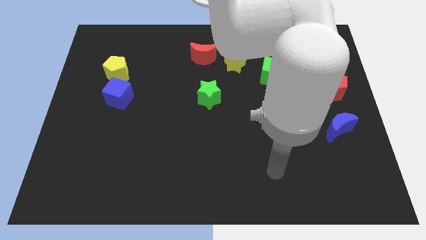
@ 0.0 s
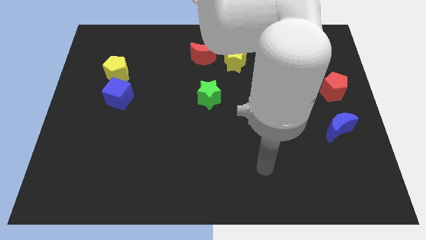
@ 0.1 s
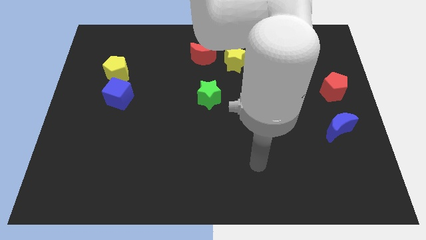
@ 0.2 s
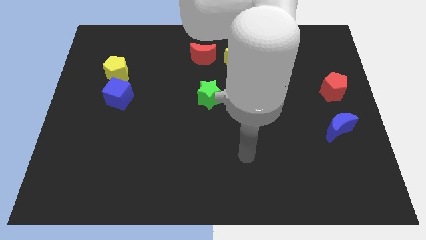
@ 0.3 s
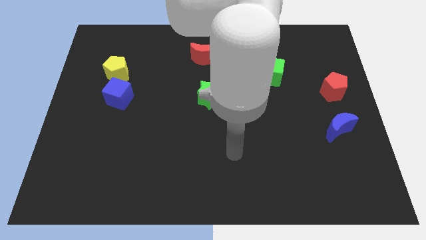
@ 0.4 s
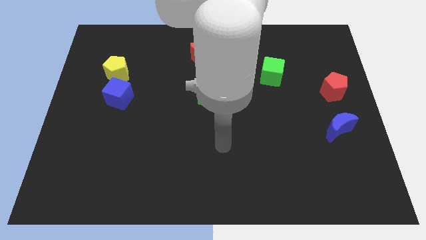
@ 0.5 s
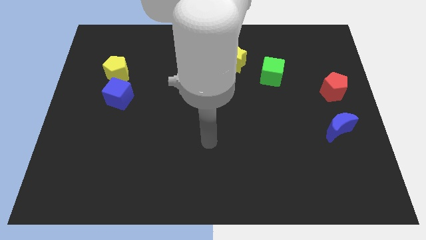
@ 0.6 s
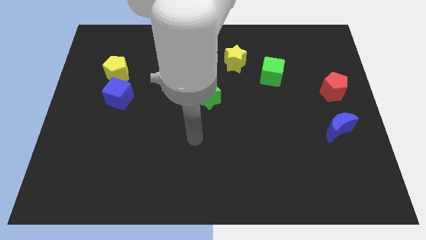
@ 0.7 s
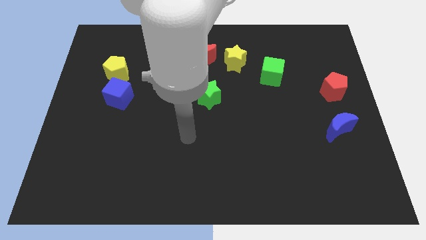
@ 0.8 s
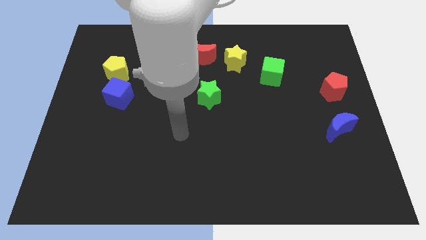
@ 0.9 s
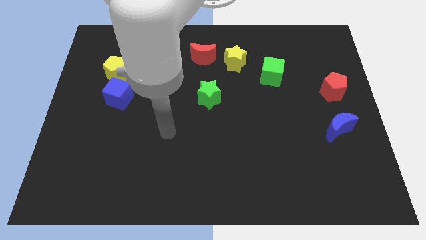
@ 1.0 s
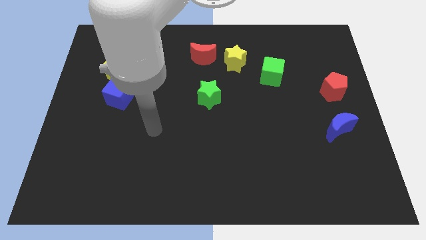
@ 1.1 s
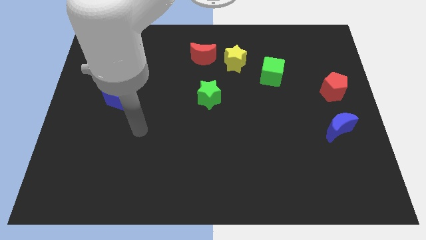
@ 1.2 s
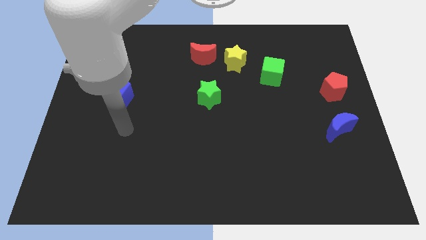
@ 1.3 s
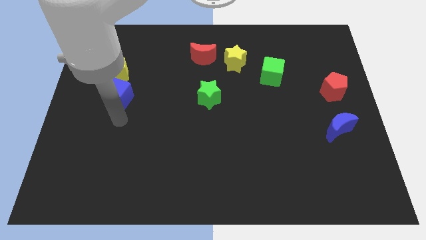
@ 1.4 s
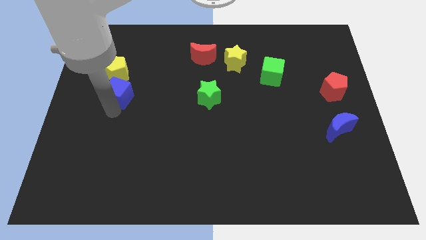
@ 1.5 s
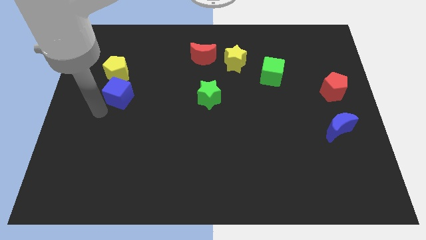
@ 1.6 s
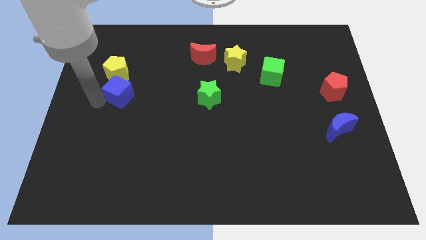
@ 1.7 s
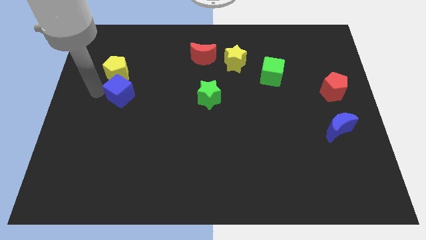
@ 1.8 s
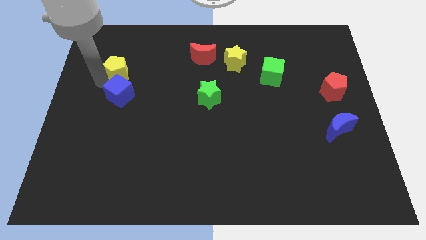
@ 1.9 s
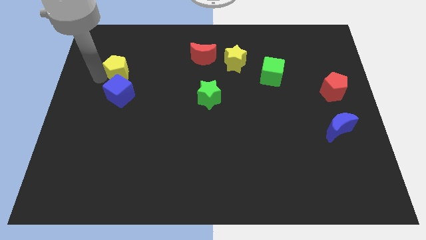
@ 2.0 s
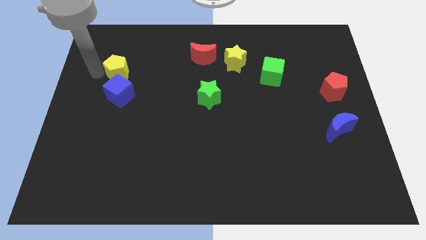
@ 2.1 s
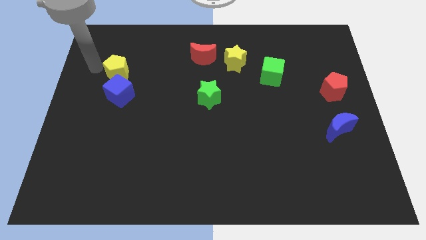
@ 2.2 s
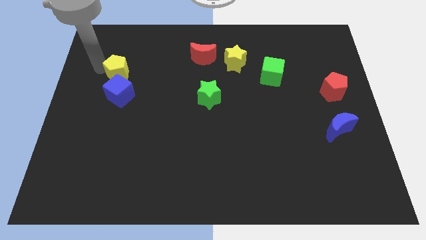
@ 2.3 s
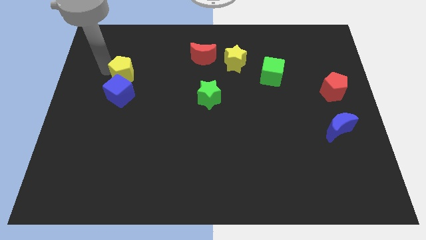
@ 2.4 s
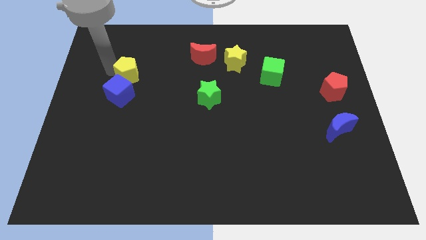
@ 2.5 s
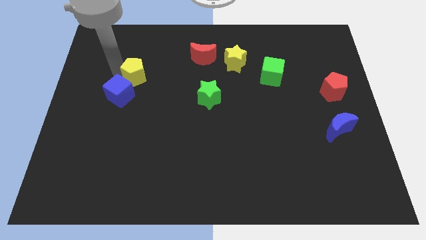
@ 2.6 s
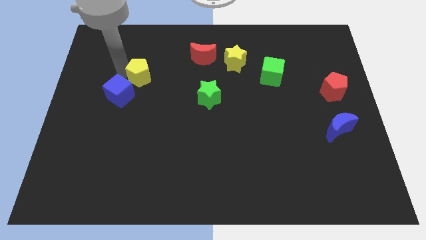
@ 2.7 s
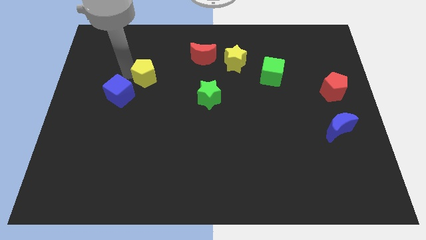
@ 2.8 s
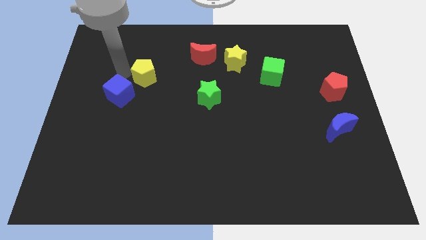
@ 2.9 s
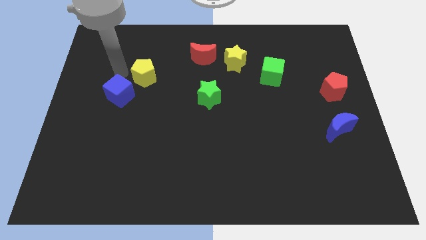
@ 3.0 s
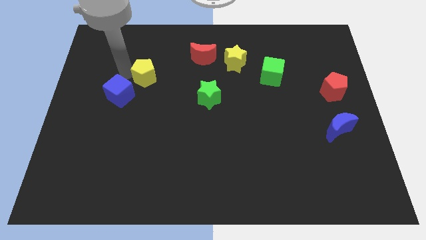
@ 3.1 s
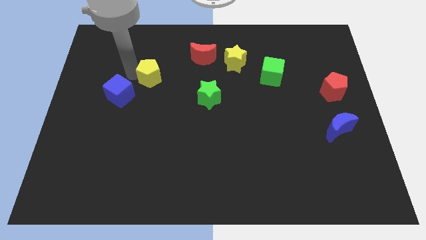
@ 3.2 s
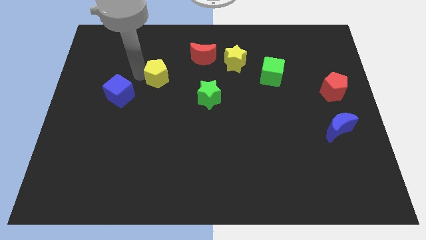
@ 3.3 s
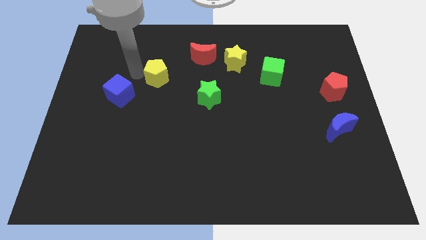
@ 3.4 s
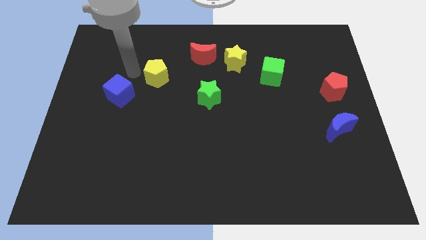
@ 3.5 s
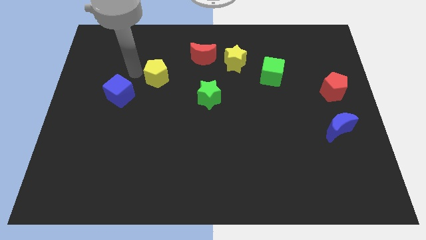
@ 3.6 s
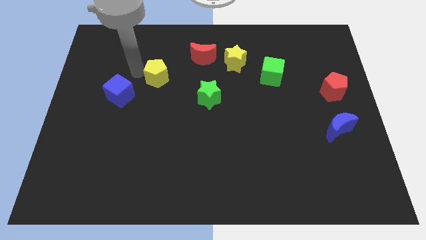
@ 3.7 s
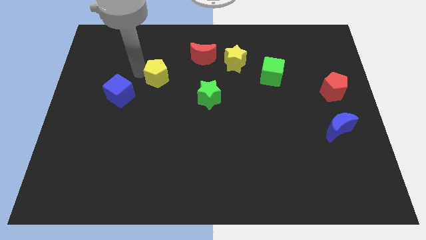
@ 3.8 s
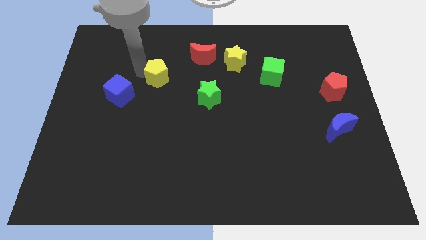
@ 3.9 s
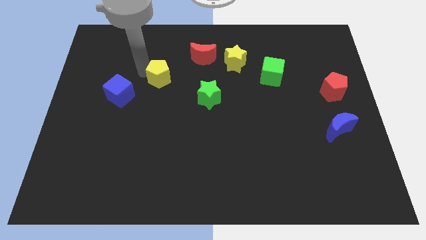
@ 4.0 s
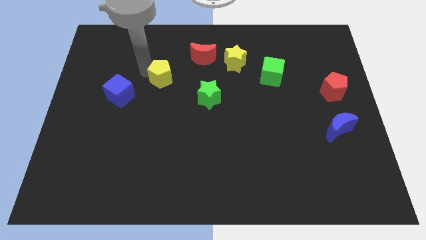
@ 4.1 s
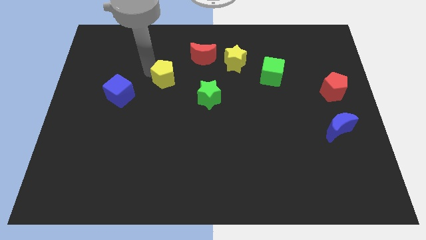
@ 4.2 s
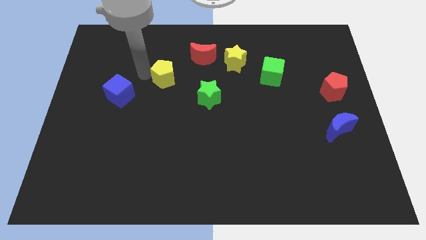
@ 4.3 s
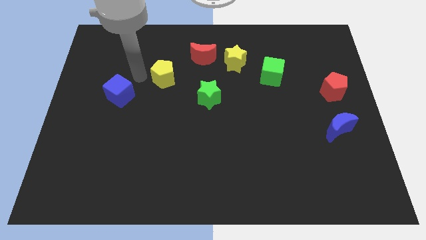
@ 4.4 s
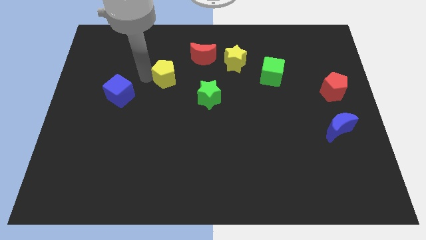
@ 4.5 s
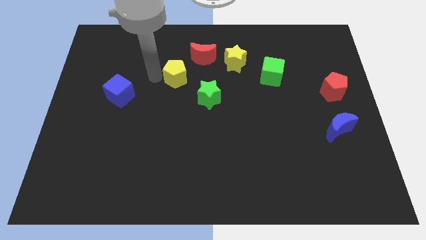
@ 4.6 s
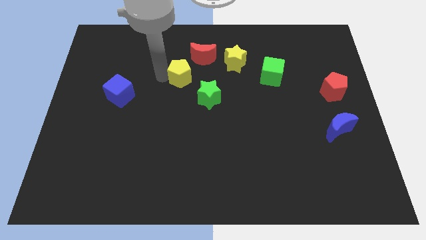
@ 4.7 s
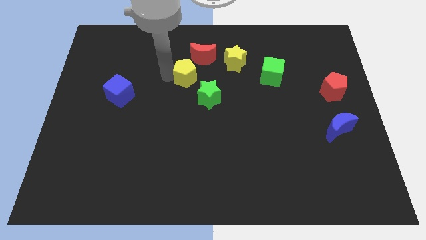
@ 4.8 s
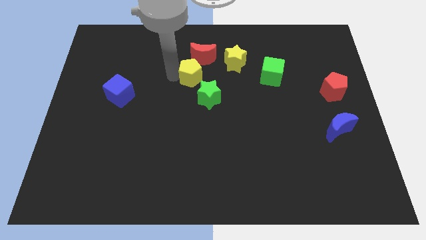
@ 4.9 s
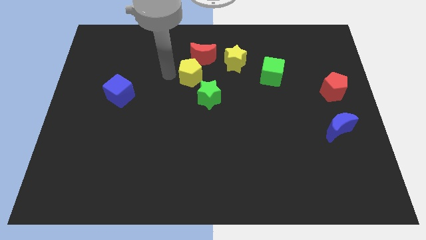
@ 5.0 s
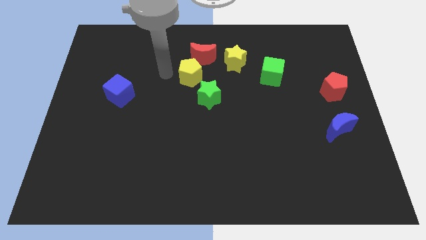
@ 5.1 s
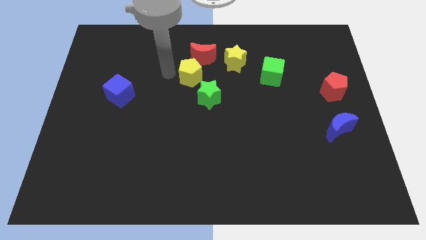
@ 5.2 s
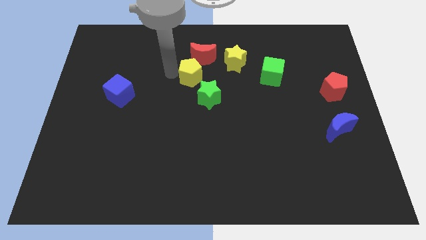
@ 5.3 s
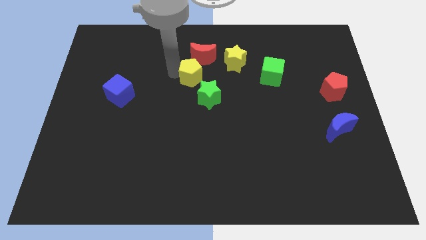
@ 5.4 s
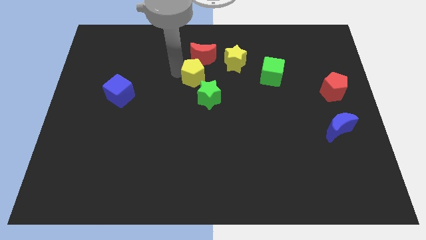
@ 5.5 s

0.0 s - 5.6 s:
move the yellow pentagon diagonally down and to the left of the yellow star

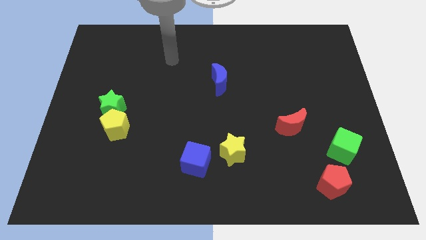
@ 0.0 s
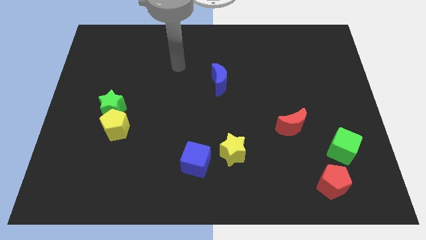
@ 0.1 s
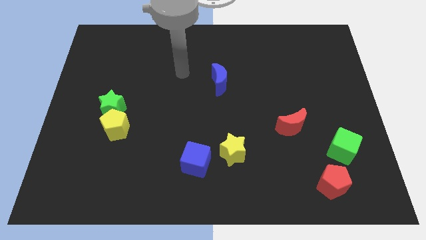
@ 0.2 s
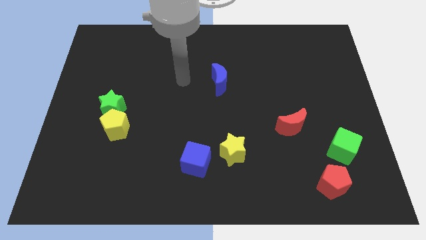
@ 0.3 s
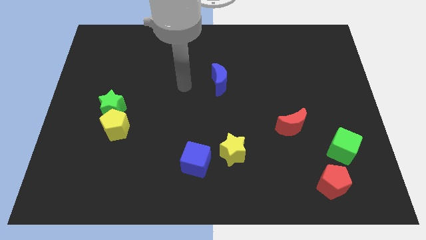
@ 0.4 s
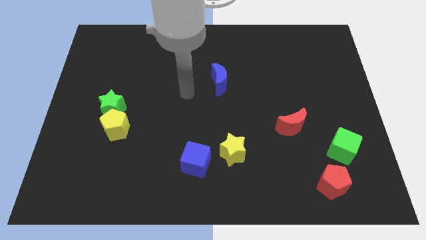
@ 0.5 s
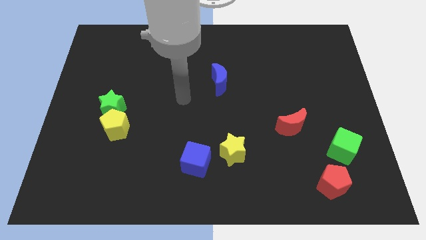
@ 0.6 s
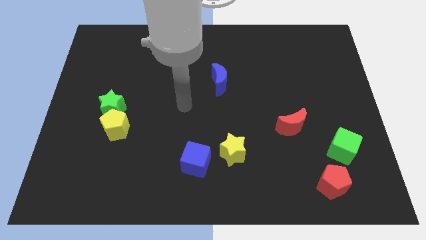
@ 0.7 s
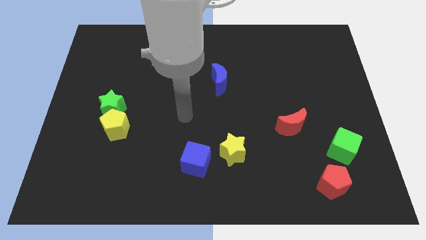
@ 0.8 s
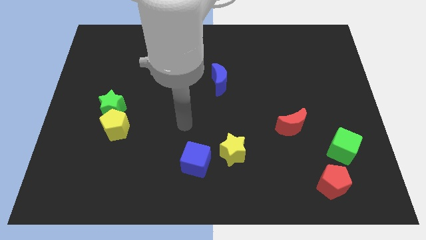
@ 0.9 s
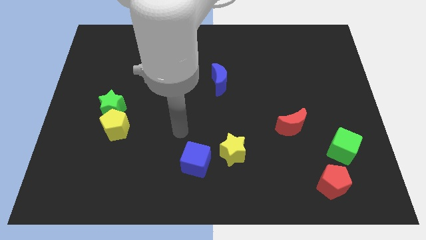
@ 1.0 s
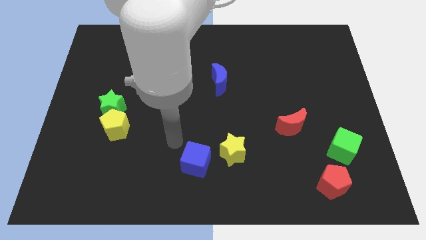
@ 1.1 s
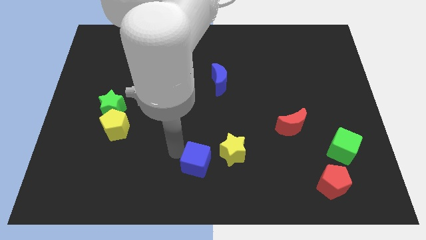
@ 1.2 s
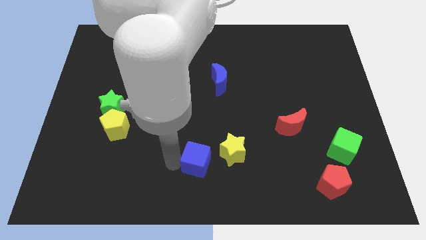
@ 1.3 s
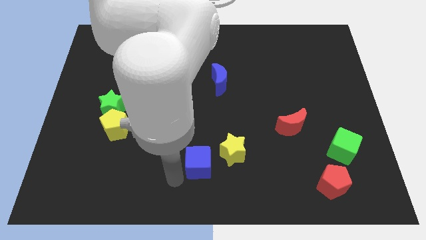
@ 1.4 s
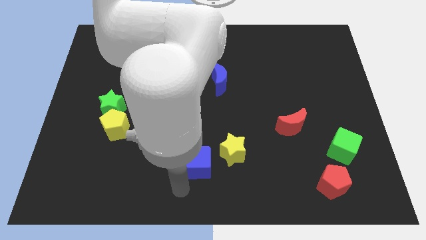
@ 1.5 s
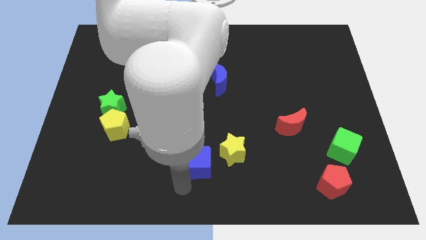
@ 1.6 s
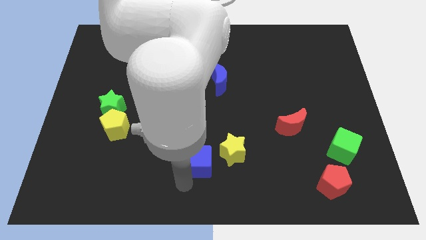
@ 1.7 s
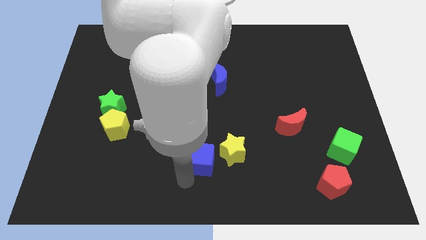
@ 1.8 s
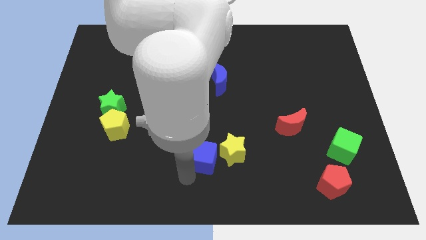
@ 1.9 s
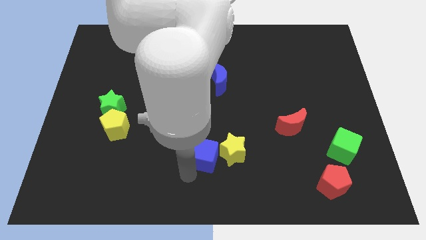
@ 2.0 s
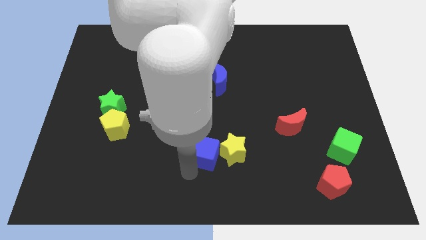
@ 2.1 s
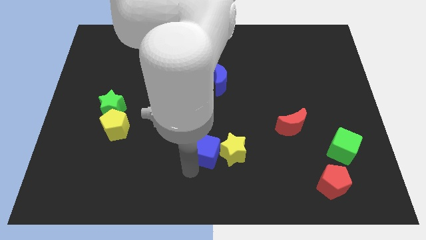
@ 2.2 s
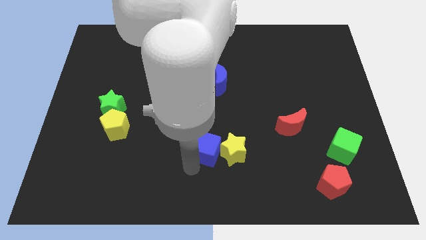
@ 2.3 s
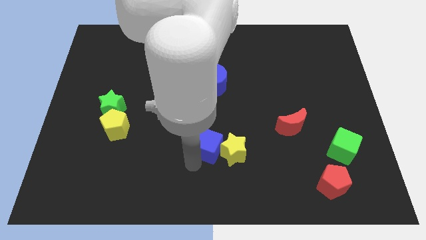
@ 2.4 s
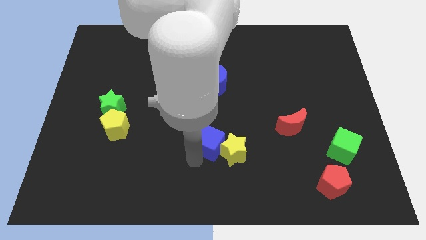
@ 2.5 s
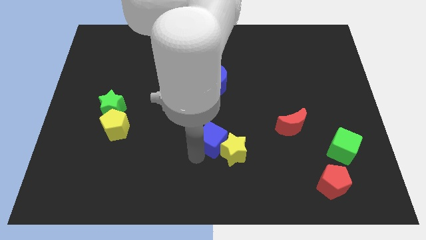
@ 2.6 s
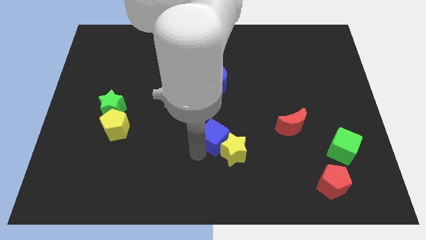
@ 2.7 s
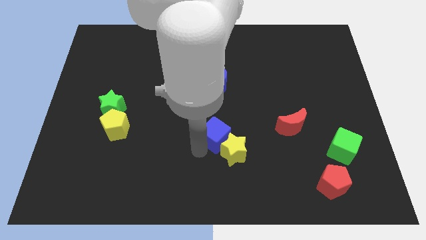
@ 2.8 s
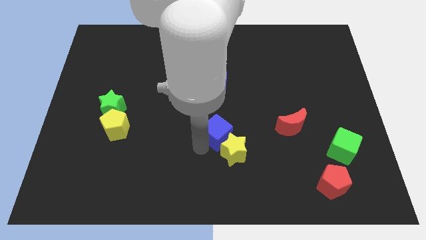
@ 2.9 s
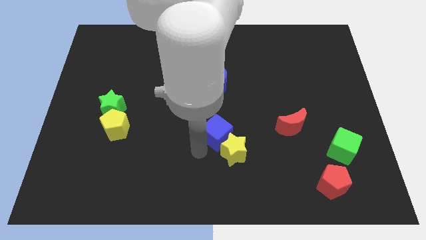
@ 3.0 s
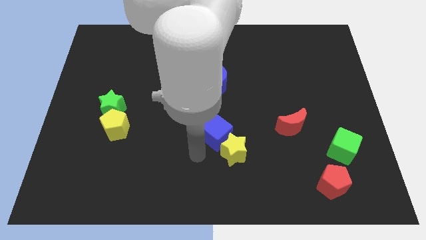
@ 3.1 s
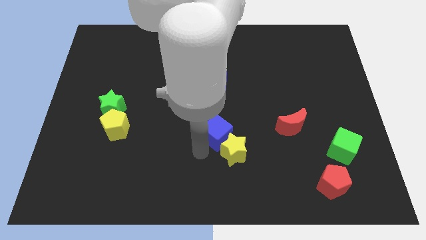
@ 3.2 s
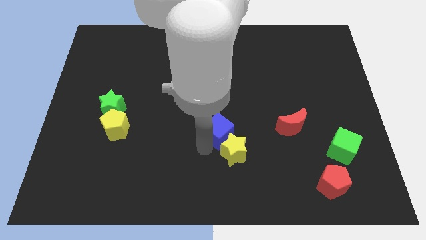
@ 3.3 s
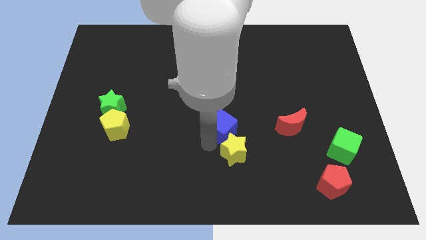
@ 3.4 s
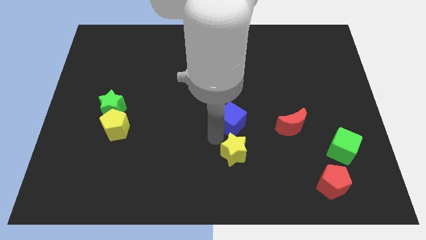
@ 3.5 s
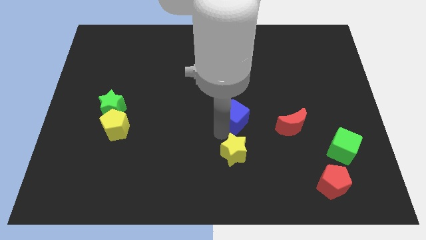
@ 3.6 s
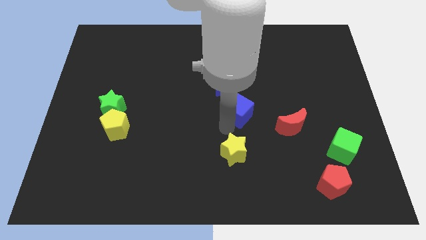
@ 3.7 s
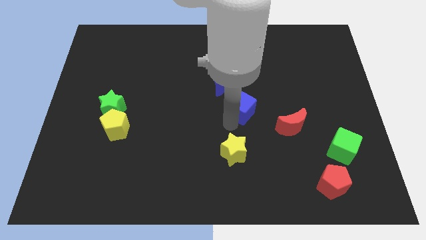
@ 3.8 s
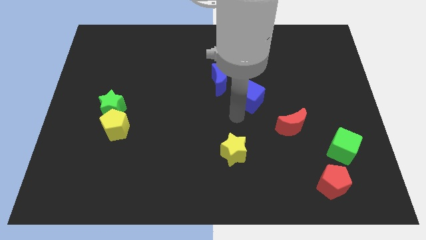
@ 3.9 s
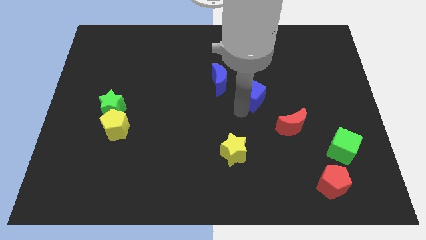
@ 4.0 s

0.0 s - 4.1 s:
slide the blue cube right of the blue moon
